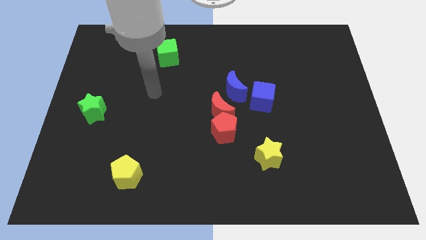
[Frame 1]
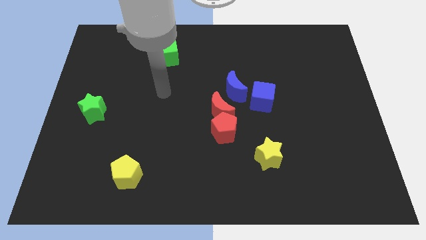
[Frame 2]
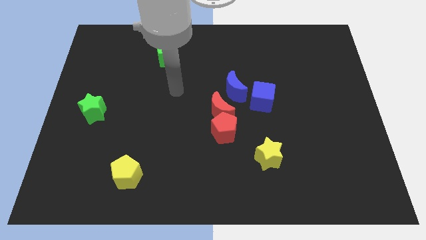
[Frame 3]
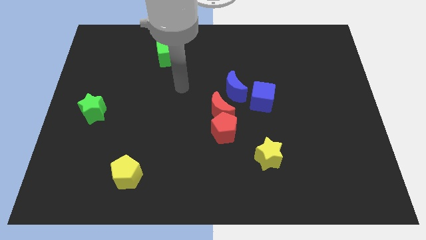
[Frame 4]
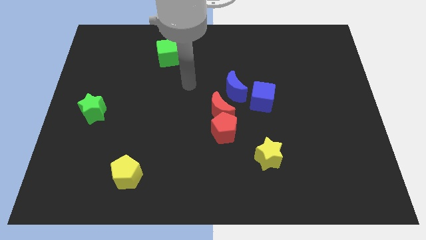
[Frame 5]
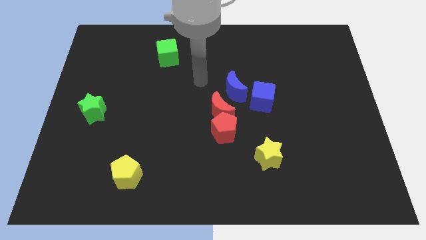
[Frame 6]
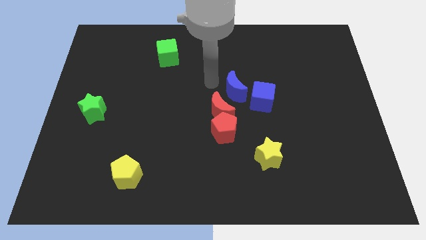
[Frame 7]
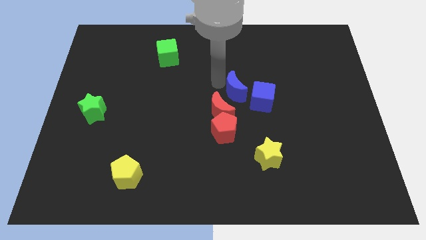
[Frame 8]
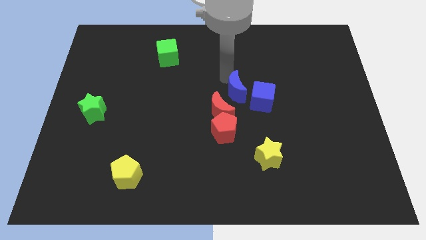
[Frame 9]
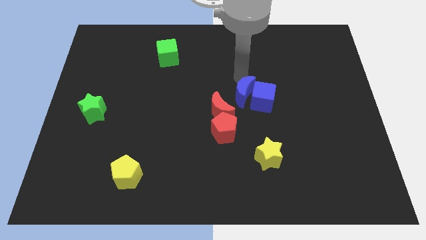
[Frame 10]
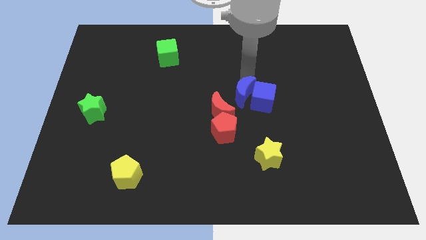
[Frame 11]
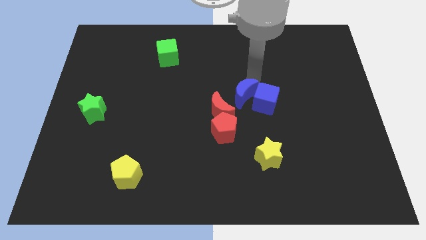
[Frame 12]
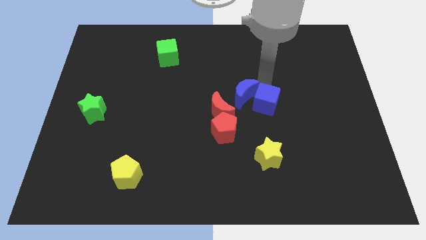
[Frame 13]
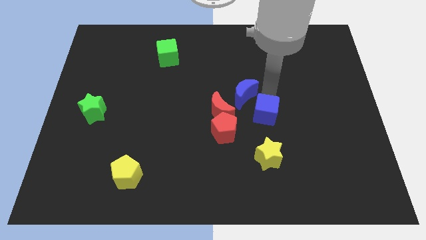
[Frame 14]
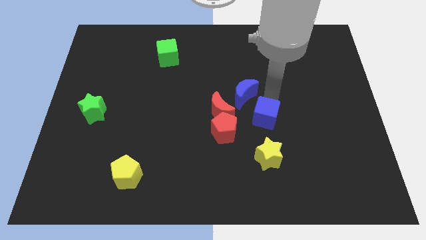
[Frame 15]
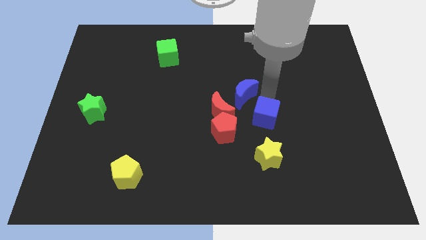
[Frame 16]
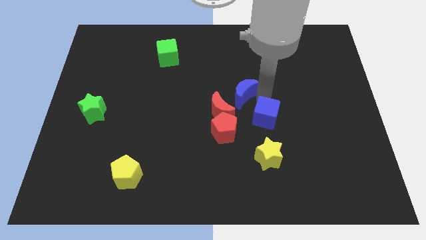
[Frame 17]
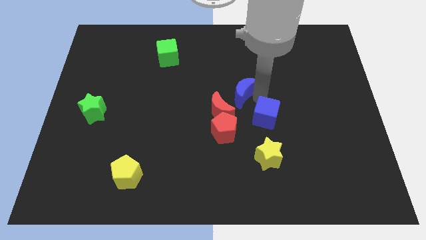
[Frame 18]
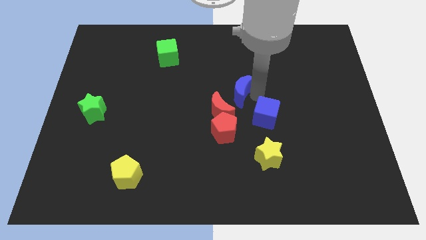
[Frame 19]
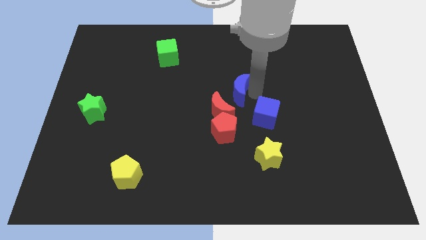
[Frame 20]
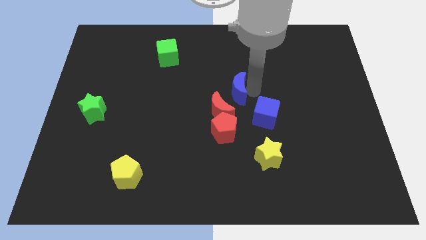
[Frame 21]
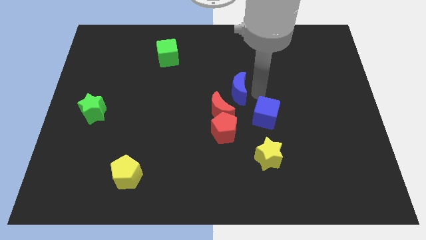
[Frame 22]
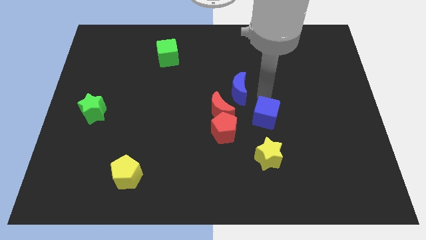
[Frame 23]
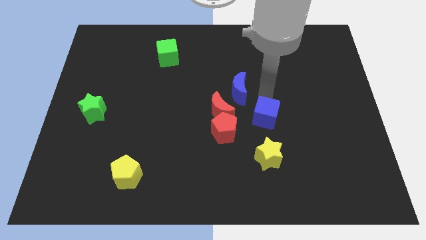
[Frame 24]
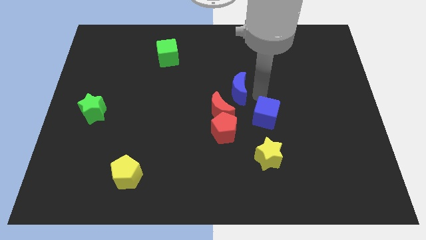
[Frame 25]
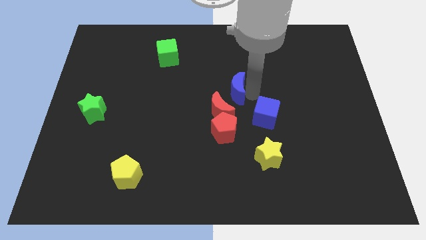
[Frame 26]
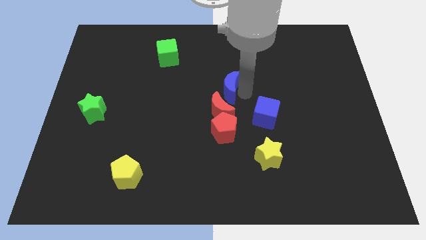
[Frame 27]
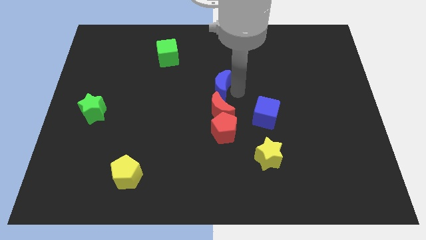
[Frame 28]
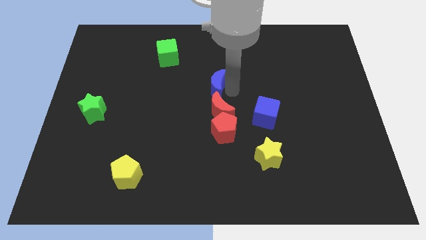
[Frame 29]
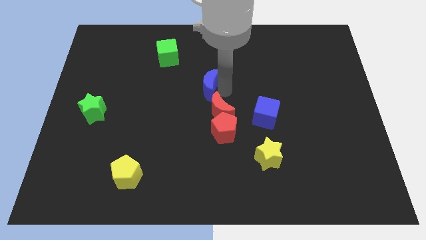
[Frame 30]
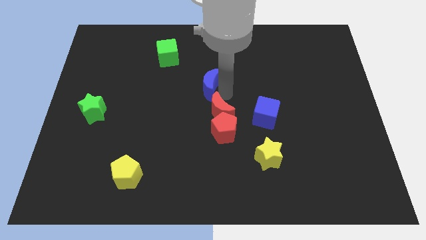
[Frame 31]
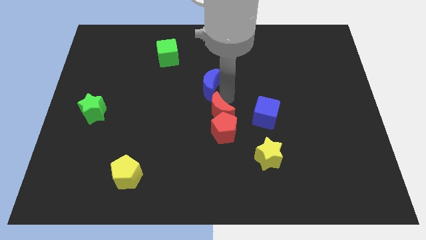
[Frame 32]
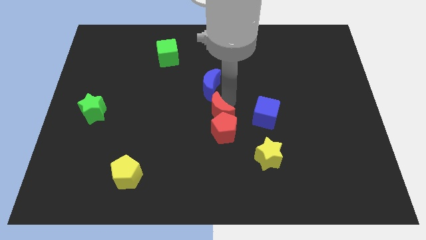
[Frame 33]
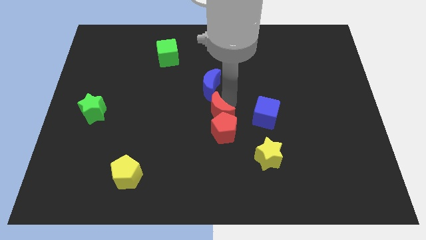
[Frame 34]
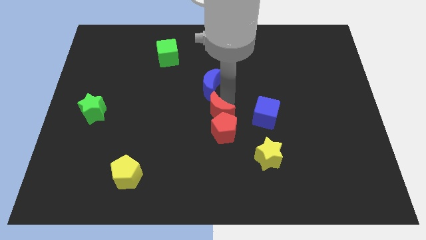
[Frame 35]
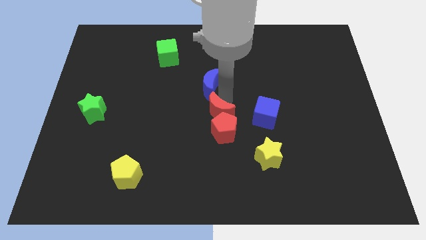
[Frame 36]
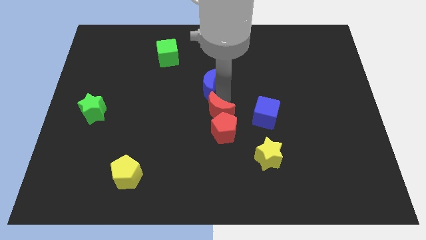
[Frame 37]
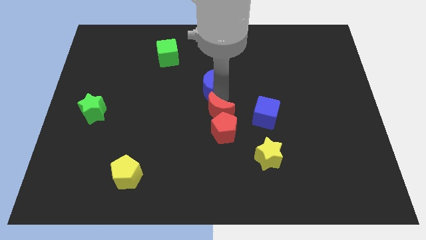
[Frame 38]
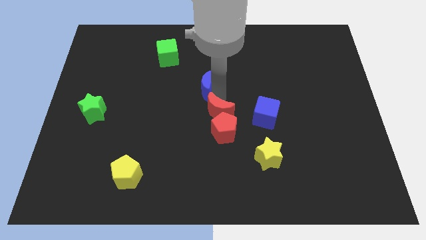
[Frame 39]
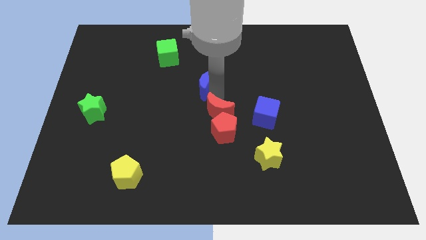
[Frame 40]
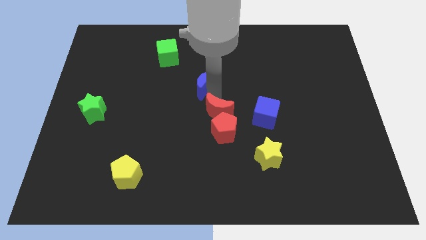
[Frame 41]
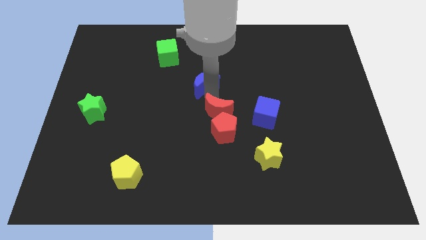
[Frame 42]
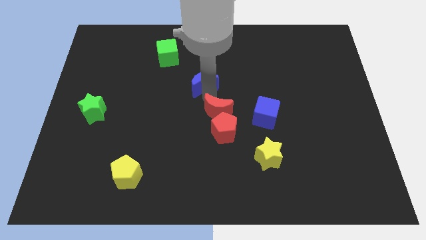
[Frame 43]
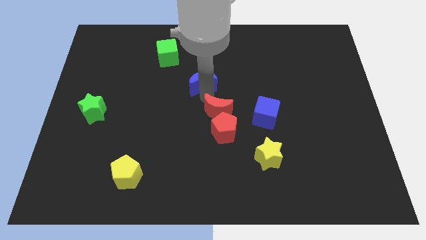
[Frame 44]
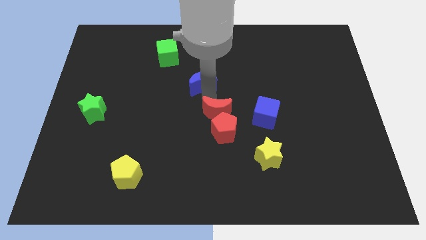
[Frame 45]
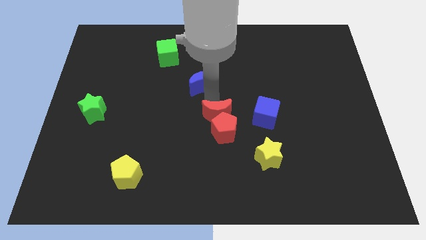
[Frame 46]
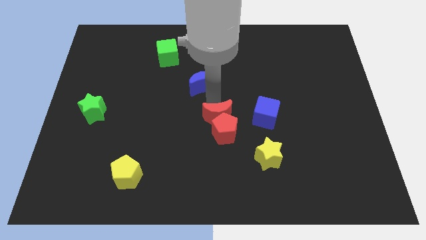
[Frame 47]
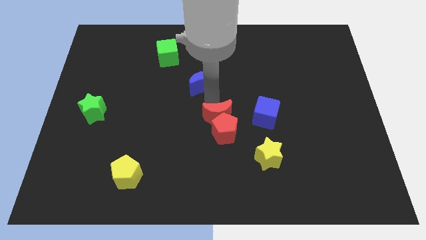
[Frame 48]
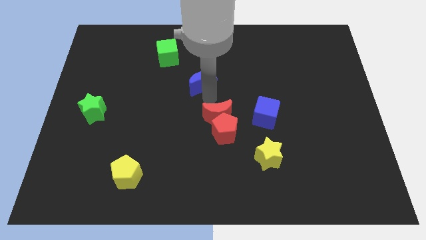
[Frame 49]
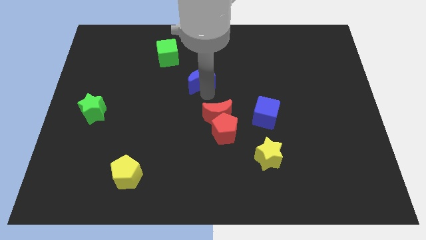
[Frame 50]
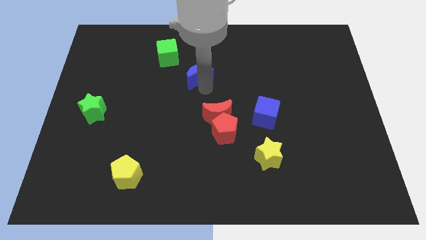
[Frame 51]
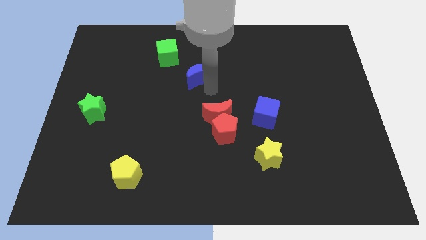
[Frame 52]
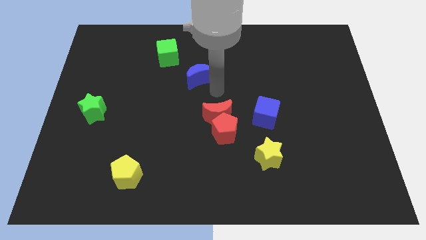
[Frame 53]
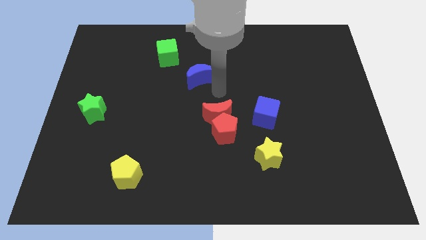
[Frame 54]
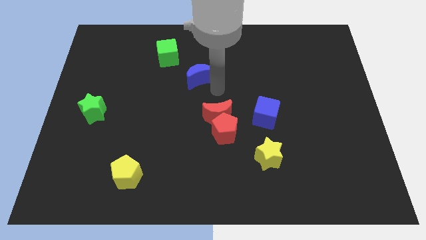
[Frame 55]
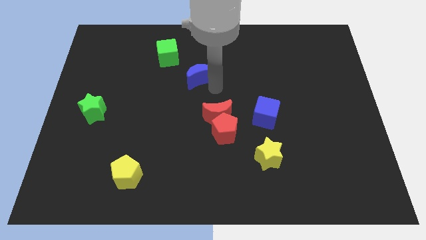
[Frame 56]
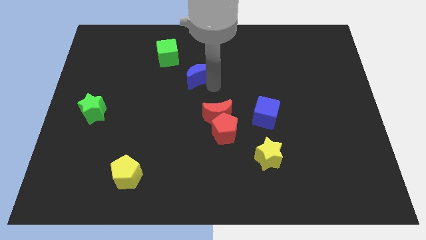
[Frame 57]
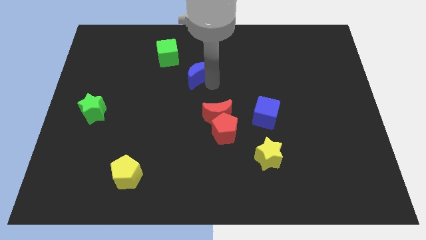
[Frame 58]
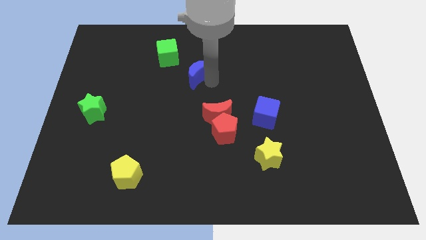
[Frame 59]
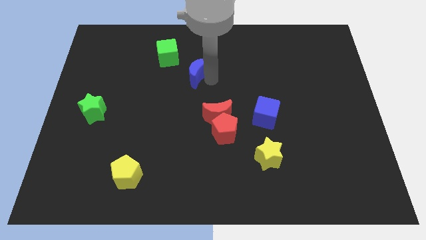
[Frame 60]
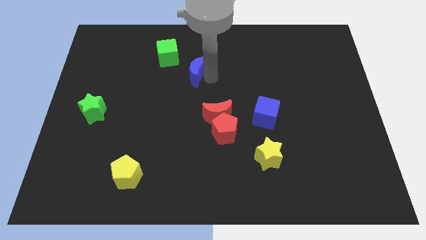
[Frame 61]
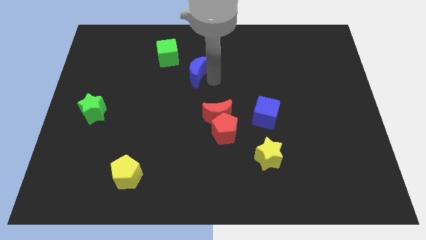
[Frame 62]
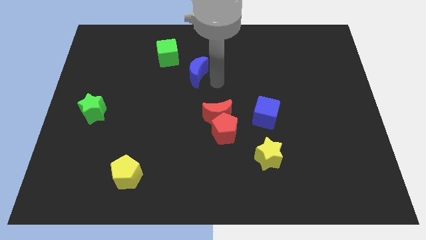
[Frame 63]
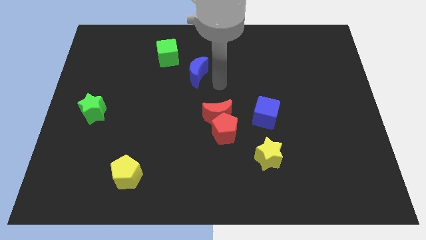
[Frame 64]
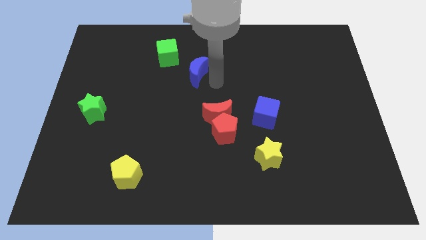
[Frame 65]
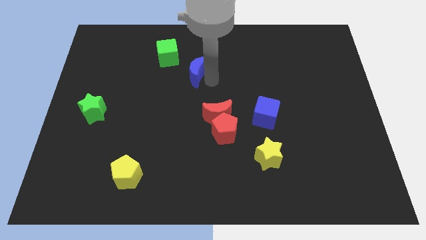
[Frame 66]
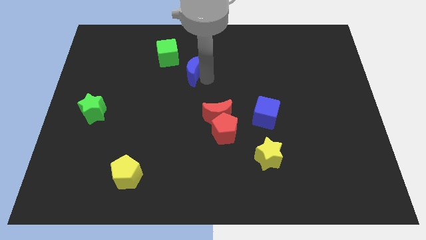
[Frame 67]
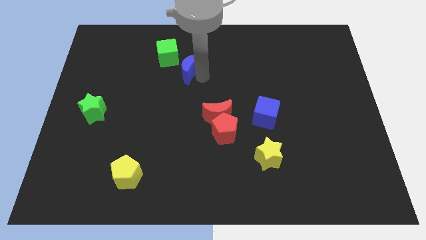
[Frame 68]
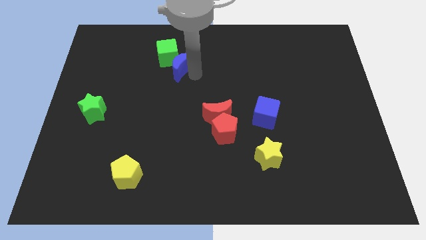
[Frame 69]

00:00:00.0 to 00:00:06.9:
move the blue moon close to the green cube

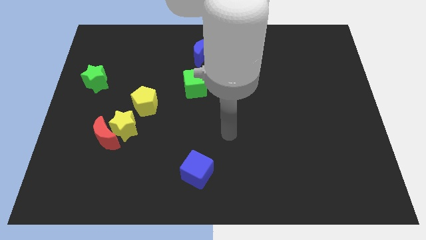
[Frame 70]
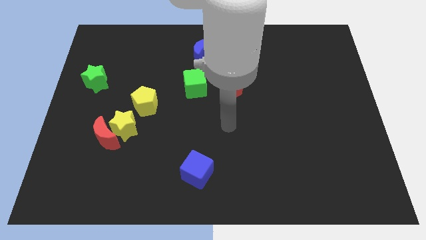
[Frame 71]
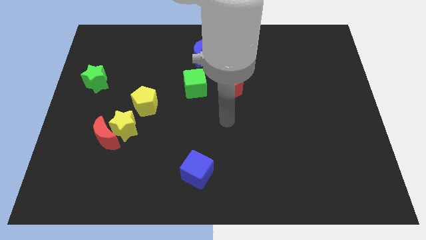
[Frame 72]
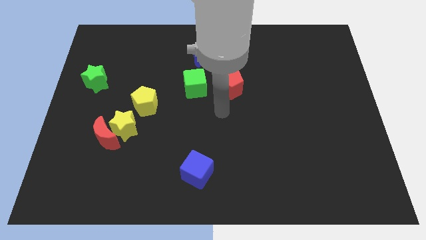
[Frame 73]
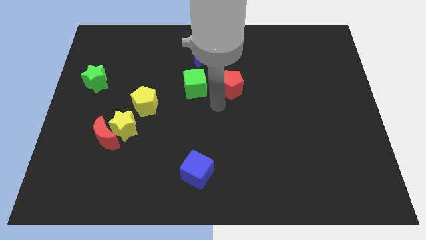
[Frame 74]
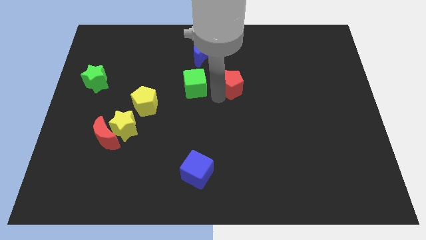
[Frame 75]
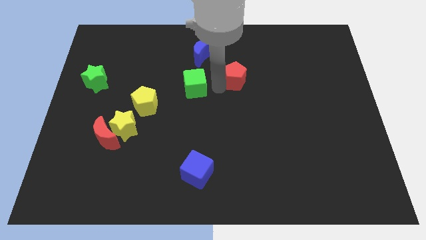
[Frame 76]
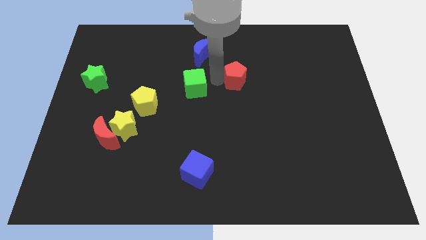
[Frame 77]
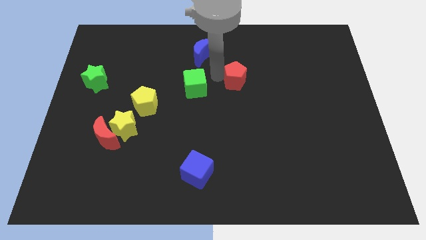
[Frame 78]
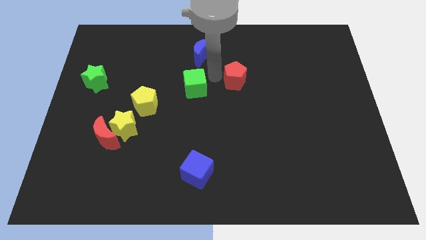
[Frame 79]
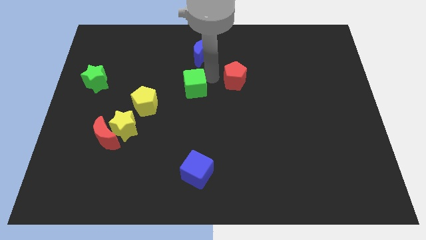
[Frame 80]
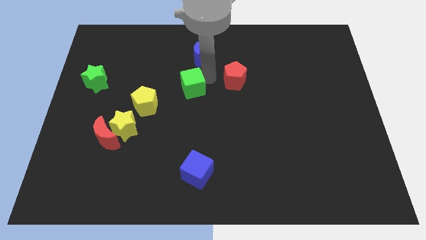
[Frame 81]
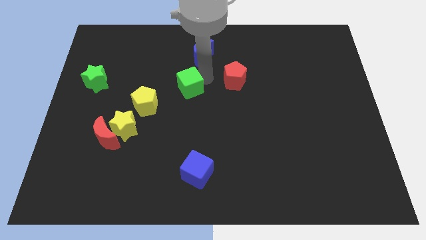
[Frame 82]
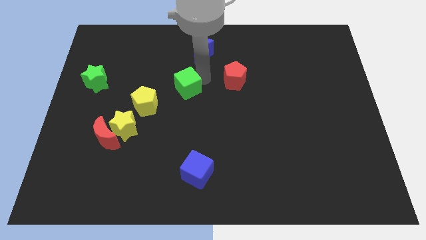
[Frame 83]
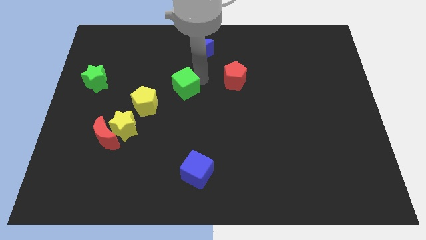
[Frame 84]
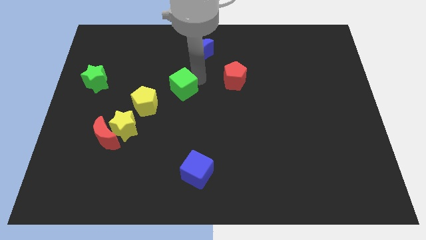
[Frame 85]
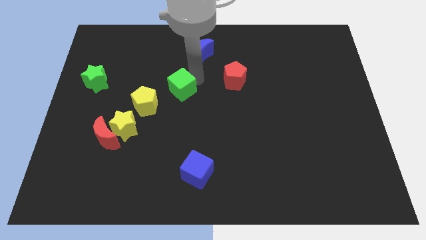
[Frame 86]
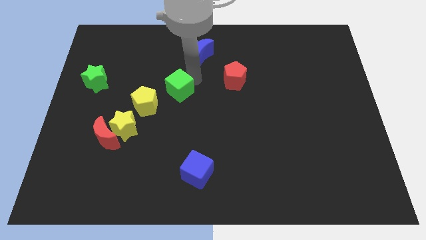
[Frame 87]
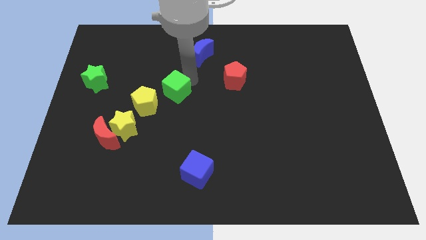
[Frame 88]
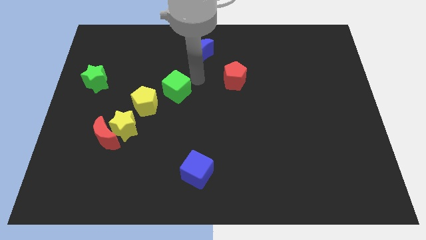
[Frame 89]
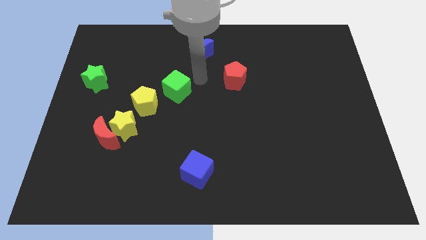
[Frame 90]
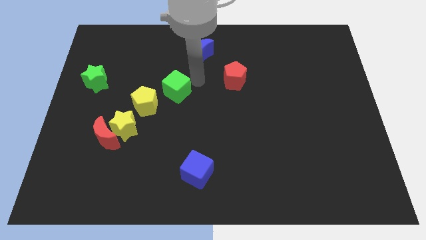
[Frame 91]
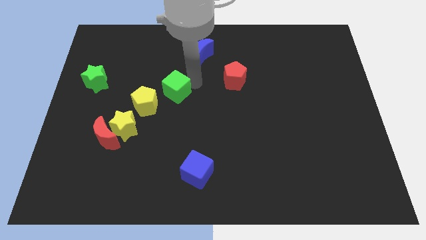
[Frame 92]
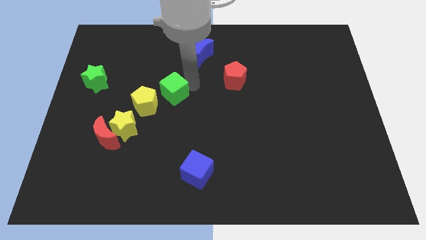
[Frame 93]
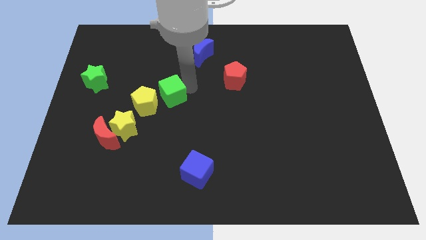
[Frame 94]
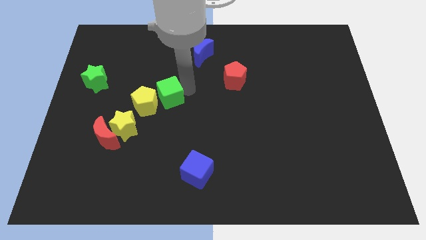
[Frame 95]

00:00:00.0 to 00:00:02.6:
slide the green cube close to the yellow pentagon
